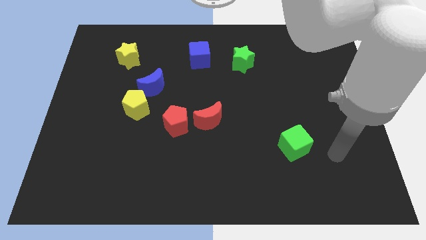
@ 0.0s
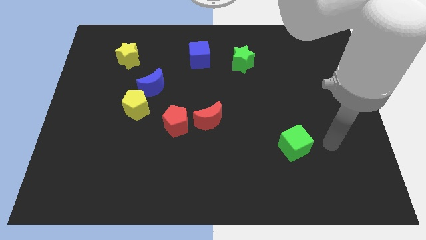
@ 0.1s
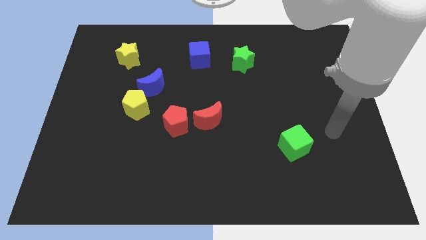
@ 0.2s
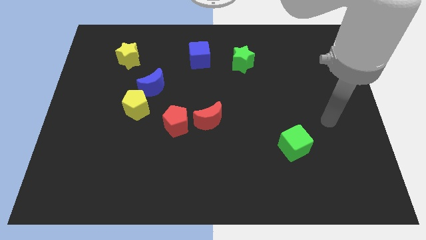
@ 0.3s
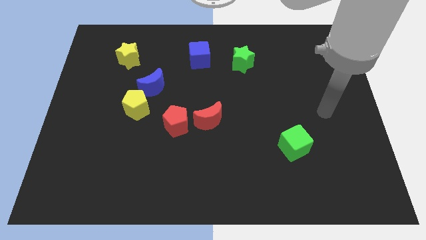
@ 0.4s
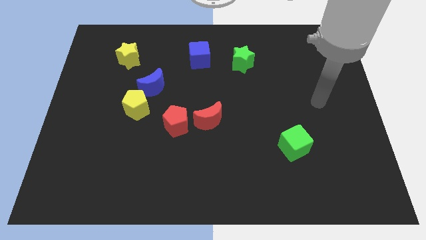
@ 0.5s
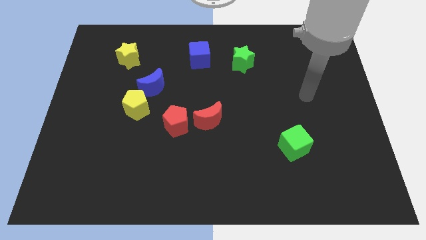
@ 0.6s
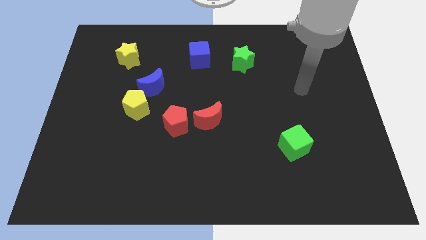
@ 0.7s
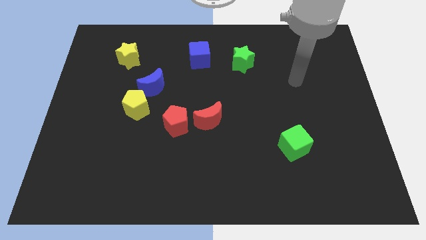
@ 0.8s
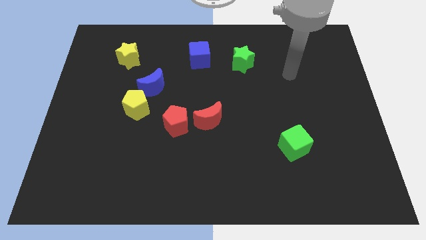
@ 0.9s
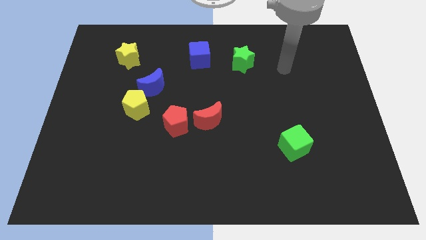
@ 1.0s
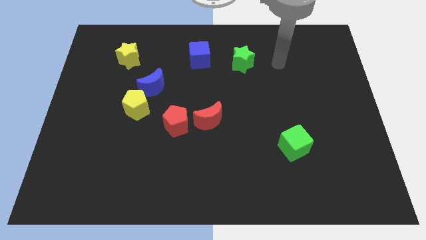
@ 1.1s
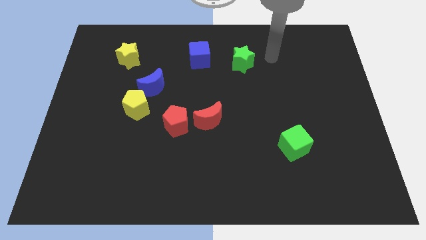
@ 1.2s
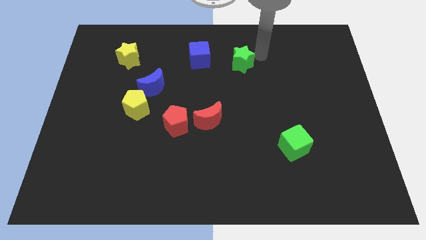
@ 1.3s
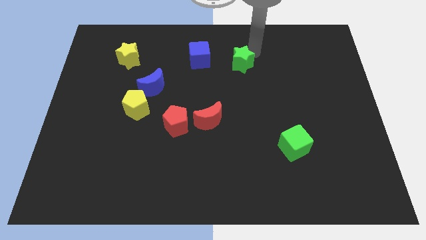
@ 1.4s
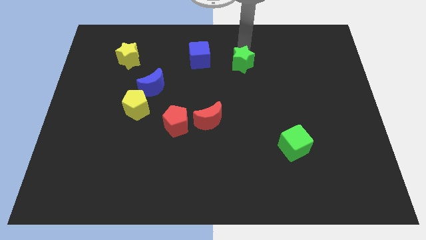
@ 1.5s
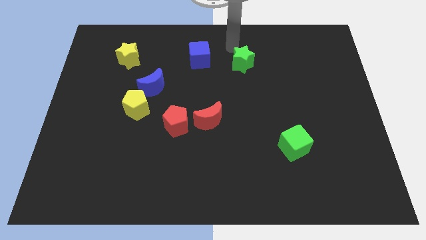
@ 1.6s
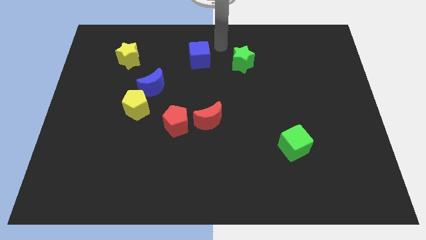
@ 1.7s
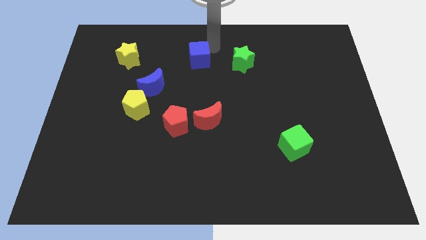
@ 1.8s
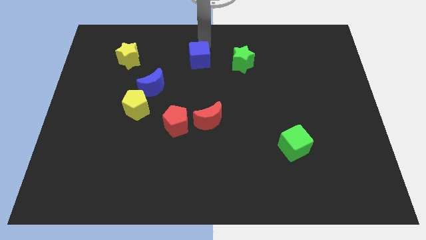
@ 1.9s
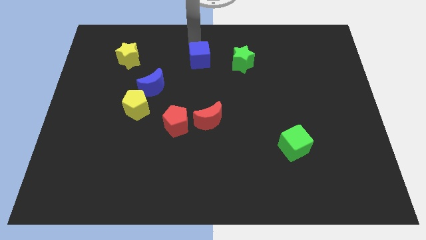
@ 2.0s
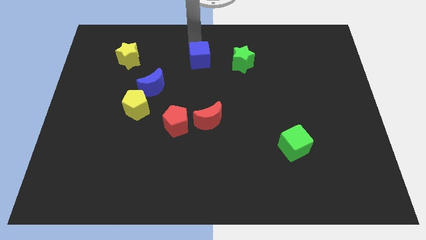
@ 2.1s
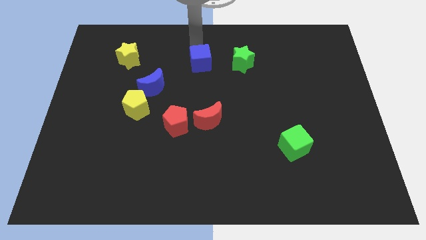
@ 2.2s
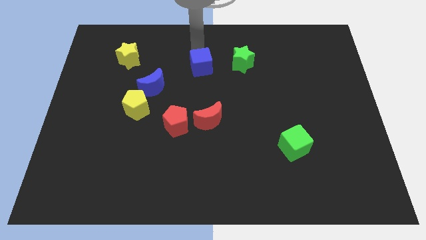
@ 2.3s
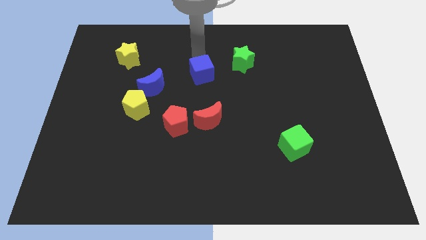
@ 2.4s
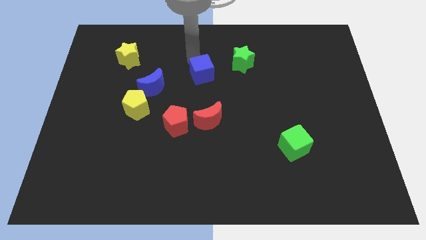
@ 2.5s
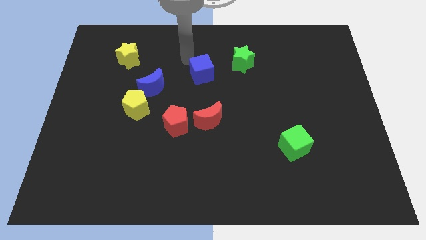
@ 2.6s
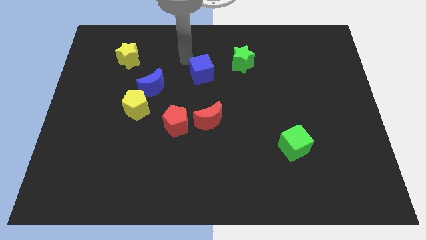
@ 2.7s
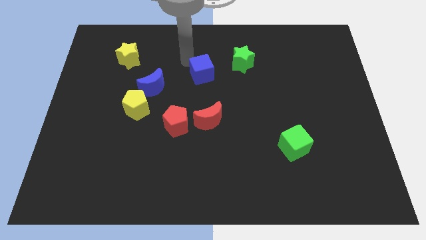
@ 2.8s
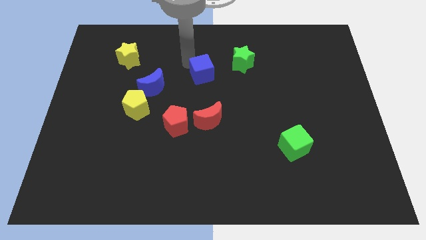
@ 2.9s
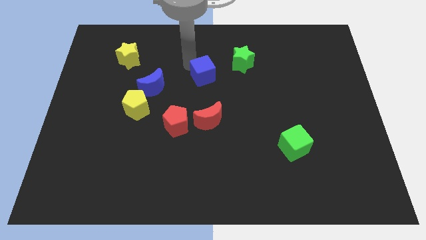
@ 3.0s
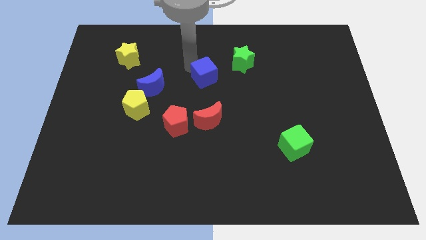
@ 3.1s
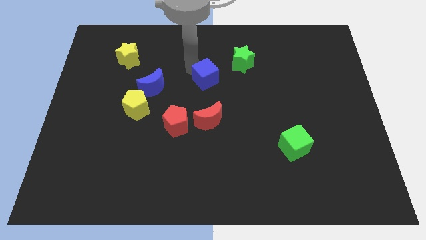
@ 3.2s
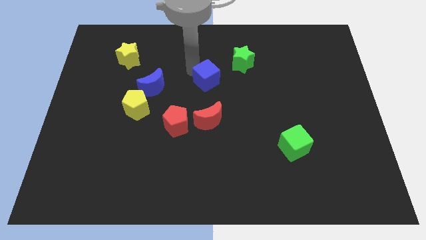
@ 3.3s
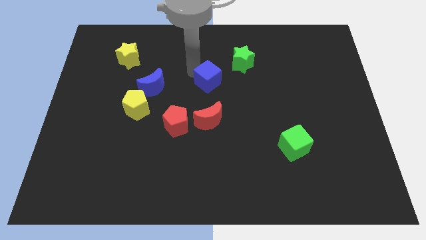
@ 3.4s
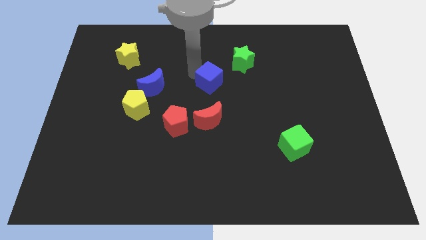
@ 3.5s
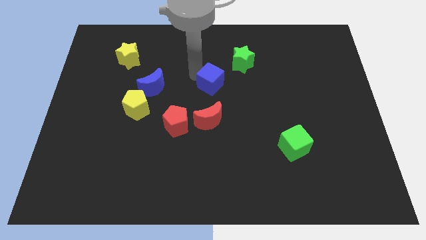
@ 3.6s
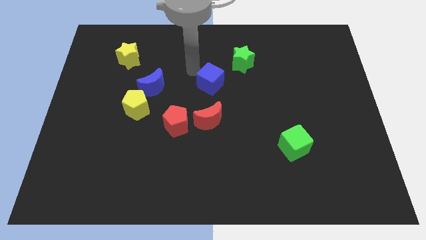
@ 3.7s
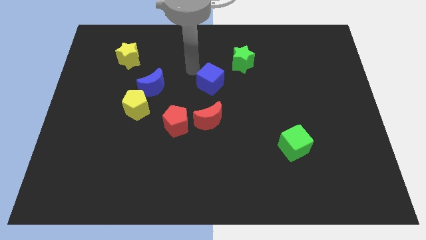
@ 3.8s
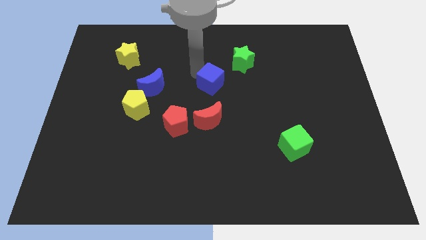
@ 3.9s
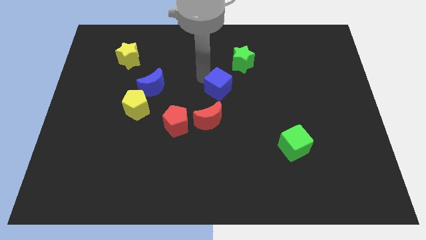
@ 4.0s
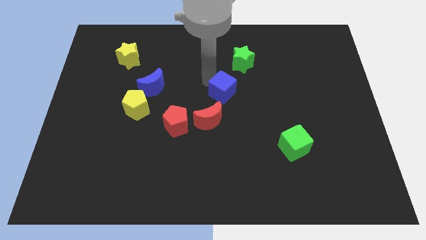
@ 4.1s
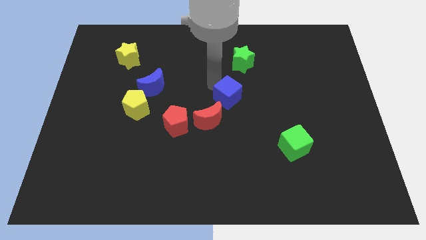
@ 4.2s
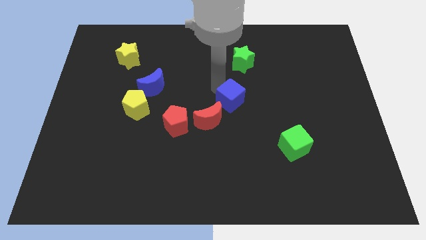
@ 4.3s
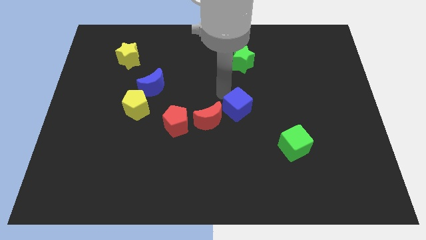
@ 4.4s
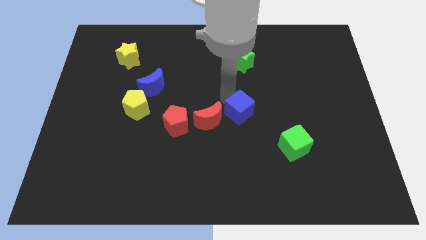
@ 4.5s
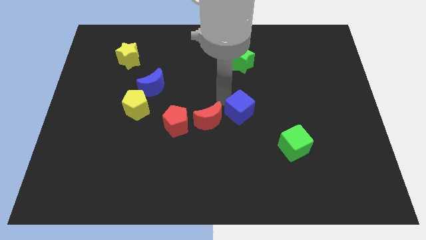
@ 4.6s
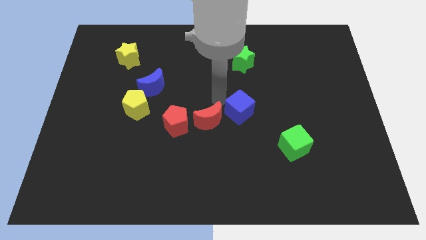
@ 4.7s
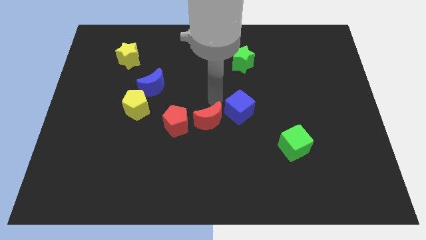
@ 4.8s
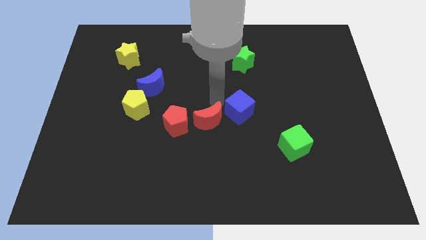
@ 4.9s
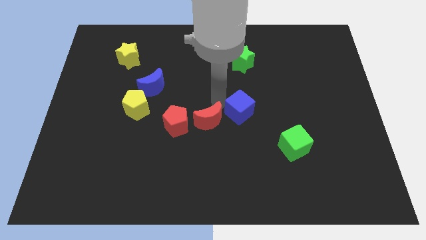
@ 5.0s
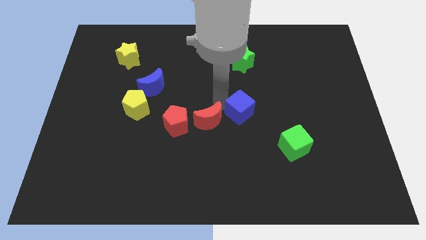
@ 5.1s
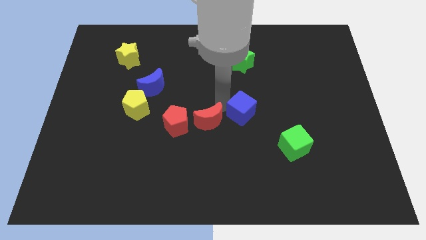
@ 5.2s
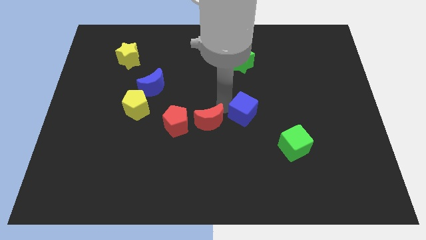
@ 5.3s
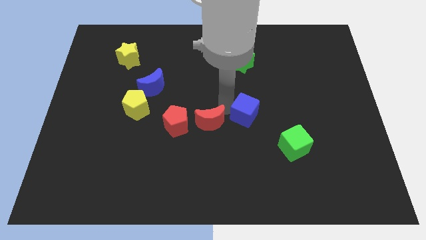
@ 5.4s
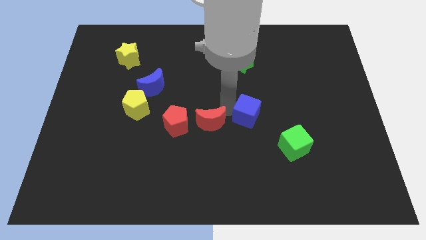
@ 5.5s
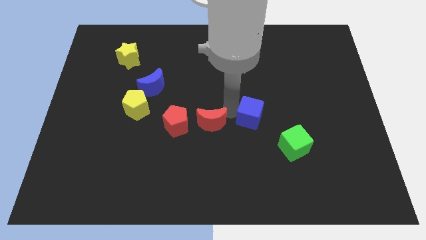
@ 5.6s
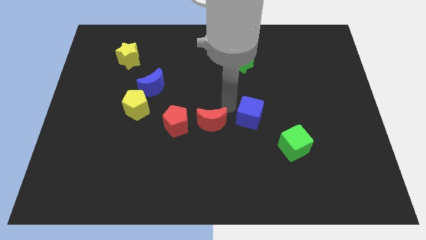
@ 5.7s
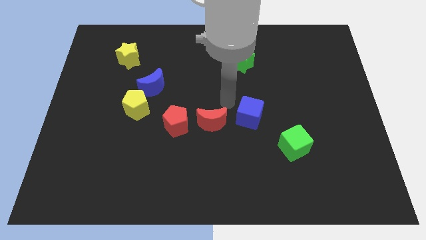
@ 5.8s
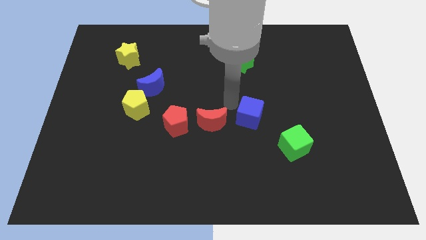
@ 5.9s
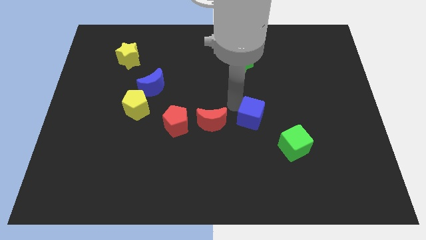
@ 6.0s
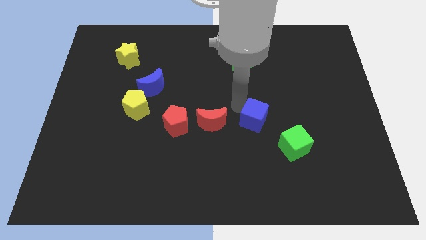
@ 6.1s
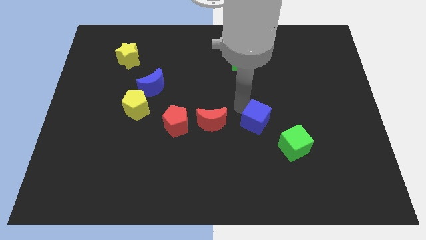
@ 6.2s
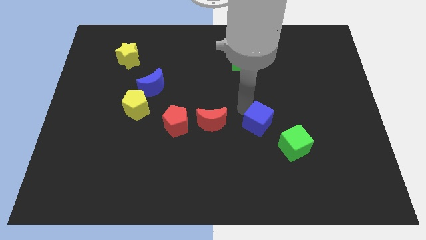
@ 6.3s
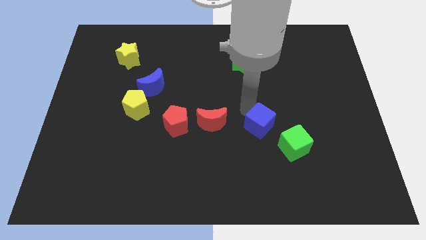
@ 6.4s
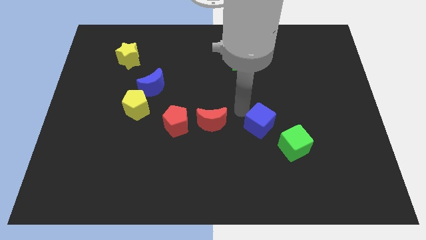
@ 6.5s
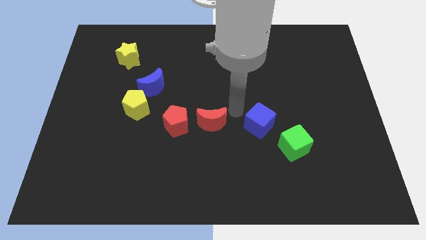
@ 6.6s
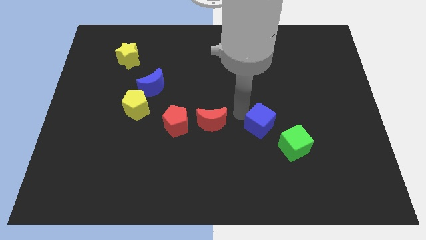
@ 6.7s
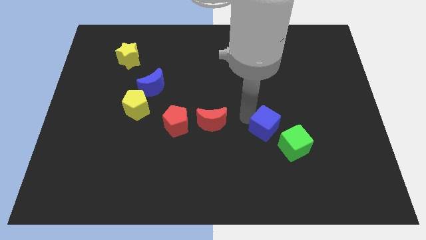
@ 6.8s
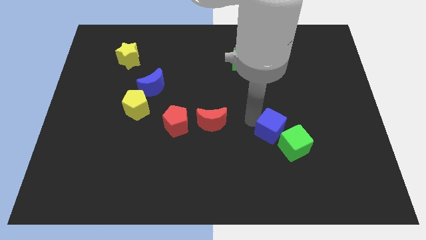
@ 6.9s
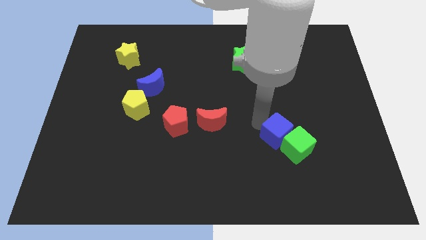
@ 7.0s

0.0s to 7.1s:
slide the blue cube close to the green cube
